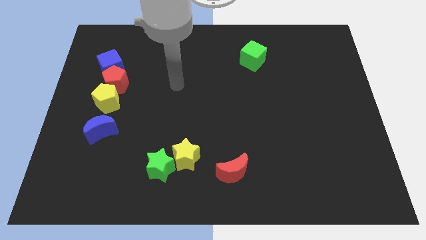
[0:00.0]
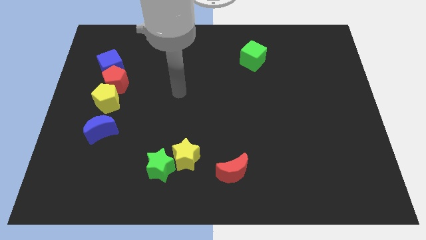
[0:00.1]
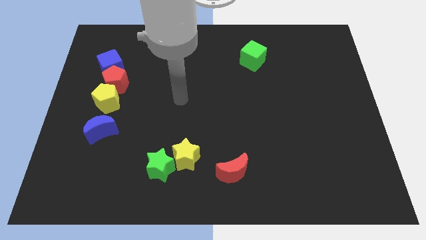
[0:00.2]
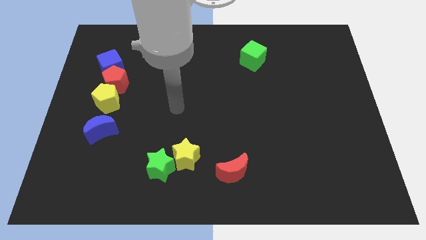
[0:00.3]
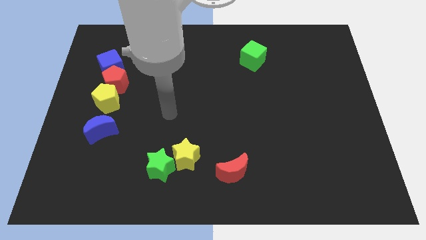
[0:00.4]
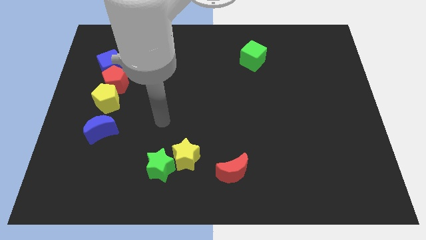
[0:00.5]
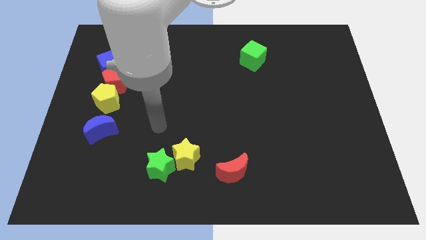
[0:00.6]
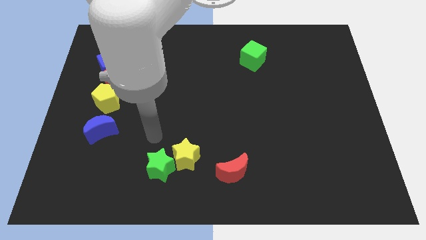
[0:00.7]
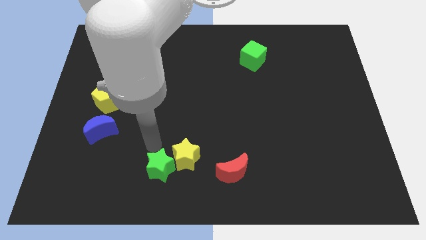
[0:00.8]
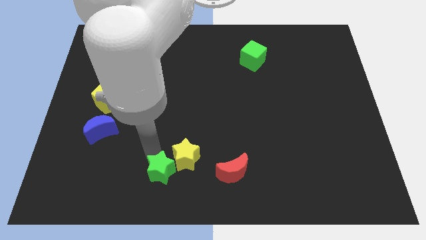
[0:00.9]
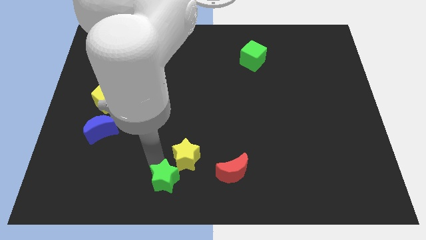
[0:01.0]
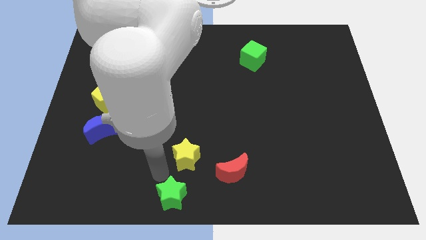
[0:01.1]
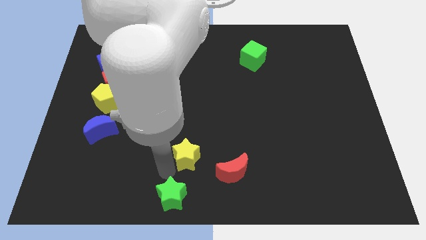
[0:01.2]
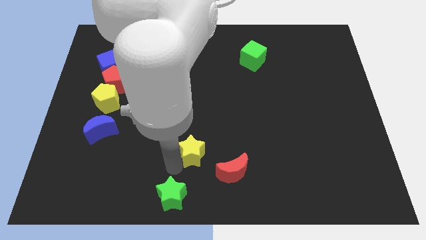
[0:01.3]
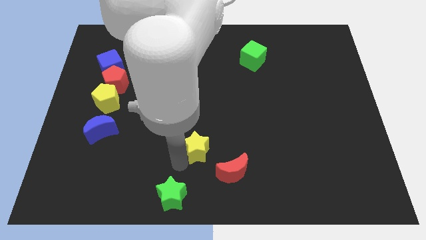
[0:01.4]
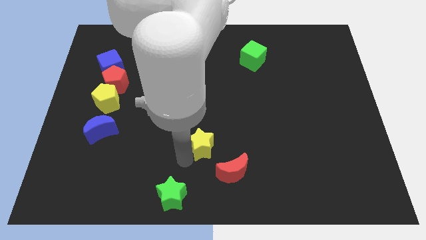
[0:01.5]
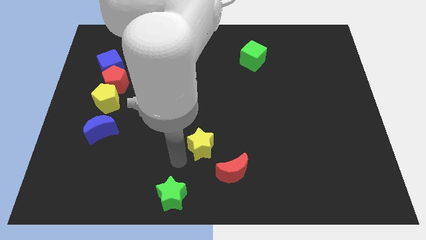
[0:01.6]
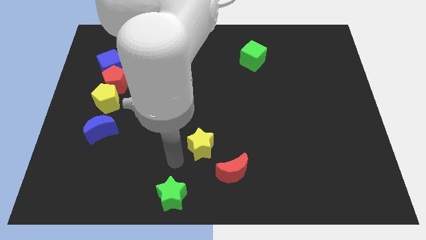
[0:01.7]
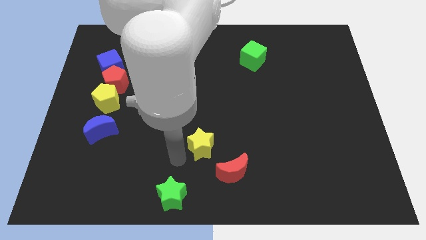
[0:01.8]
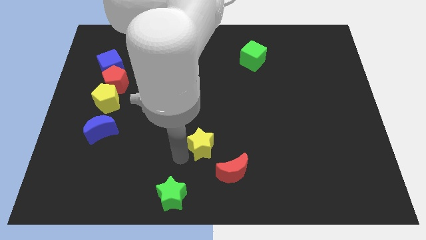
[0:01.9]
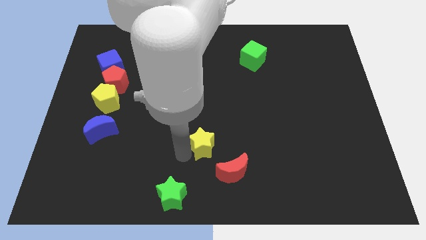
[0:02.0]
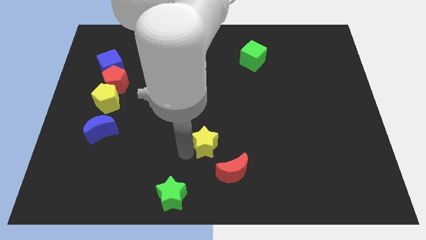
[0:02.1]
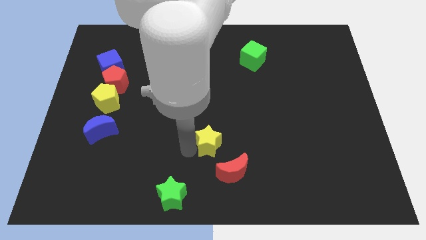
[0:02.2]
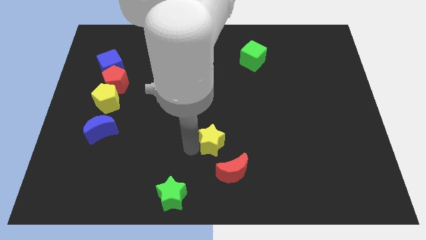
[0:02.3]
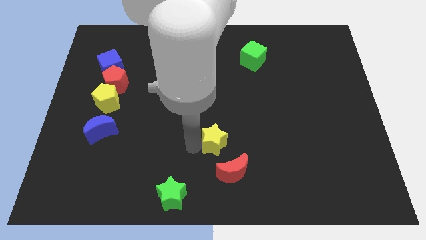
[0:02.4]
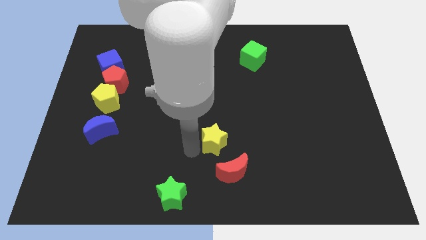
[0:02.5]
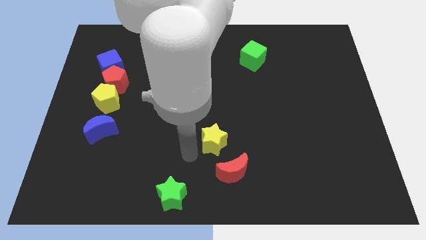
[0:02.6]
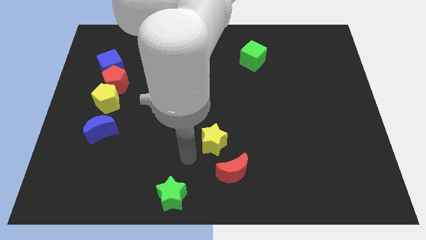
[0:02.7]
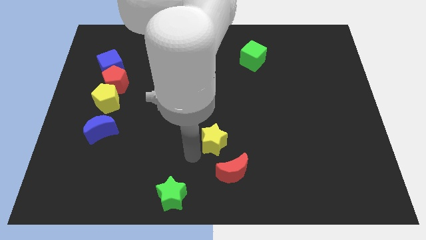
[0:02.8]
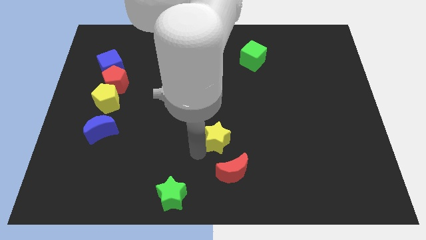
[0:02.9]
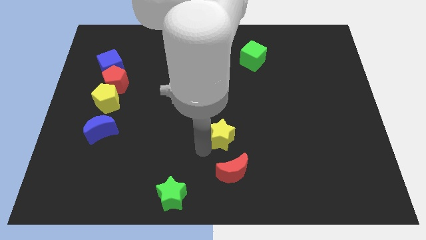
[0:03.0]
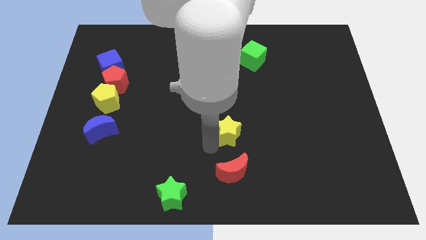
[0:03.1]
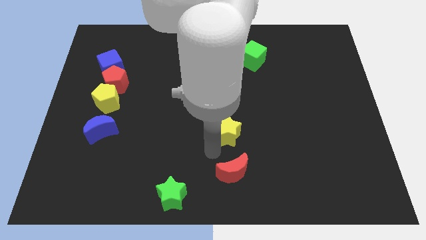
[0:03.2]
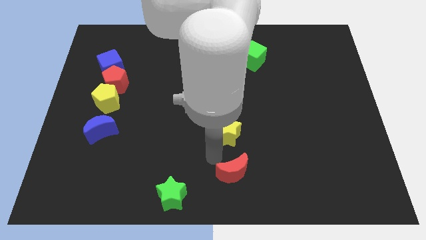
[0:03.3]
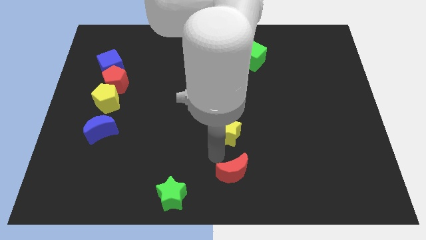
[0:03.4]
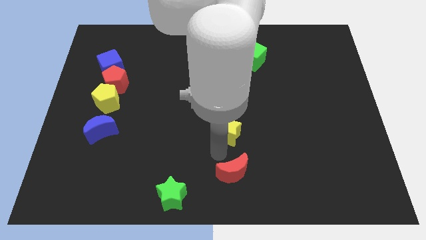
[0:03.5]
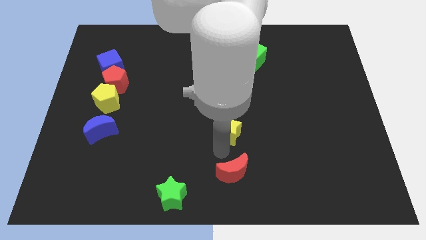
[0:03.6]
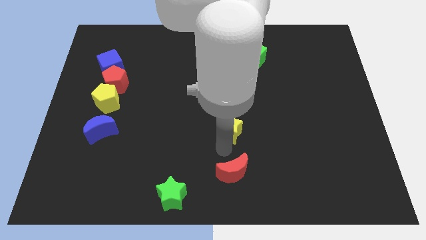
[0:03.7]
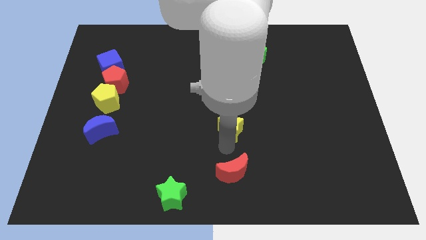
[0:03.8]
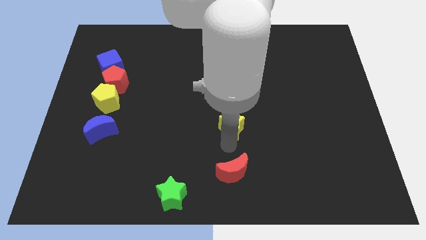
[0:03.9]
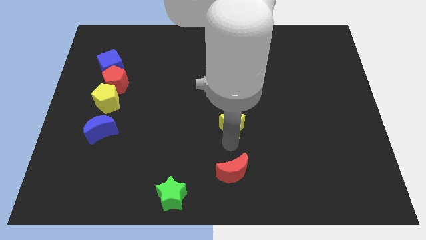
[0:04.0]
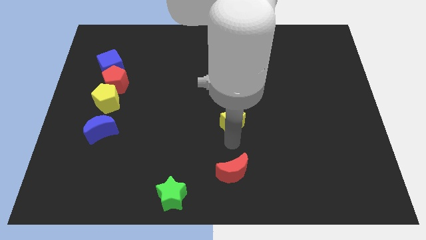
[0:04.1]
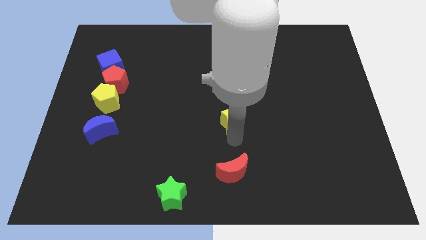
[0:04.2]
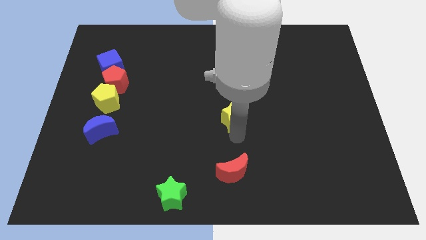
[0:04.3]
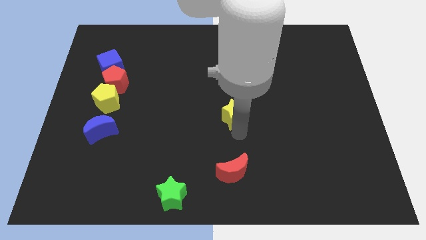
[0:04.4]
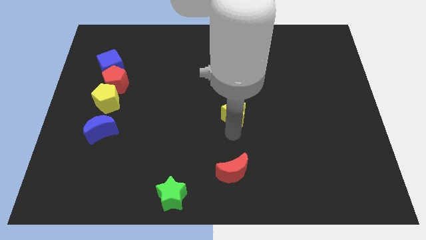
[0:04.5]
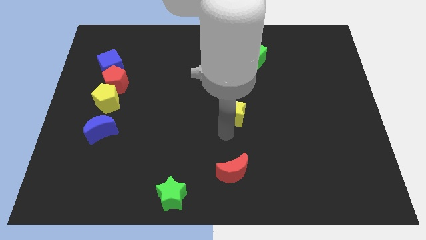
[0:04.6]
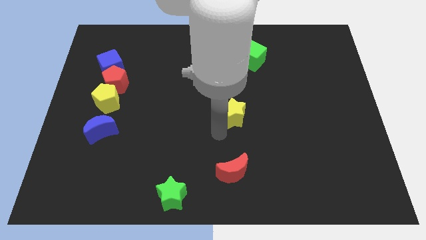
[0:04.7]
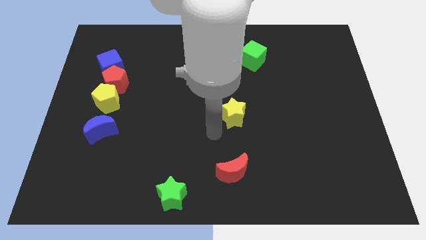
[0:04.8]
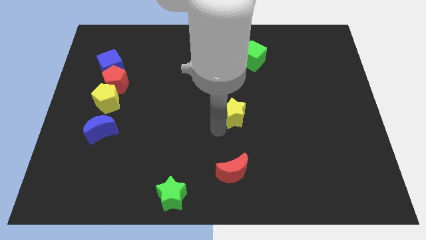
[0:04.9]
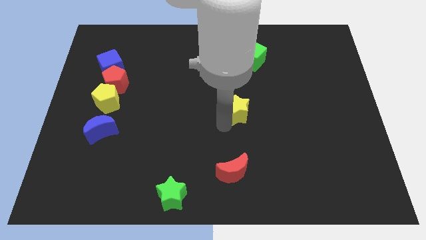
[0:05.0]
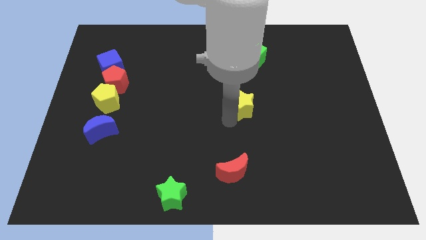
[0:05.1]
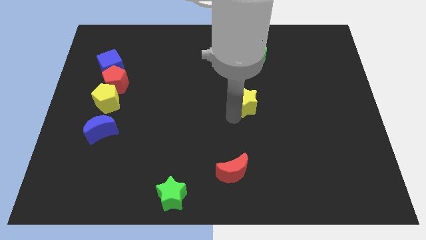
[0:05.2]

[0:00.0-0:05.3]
push the yellow star up and then right

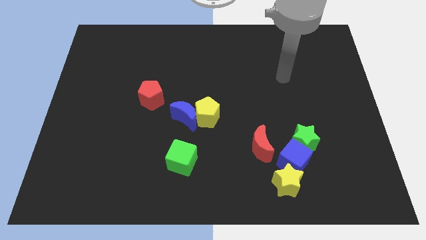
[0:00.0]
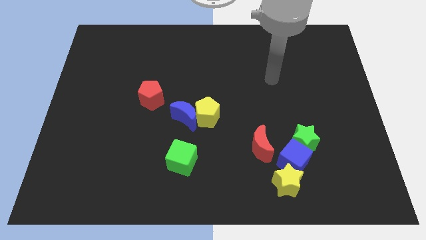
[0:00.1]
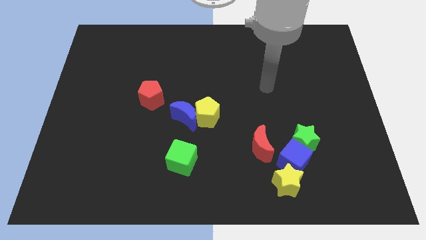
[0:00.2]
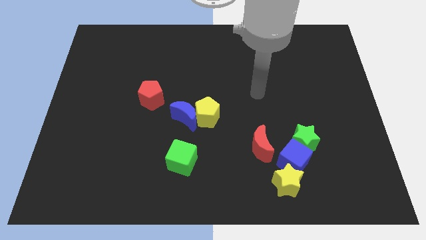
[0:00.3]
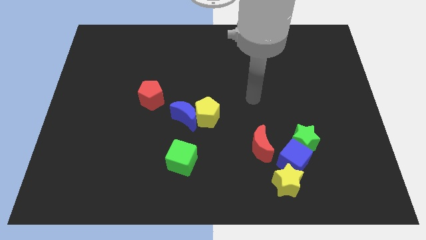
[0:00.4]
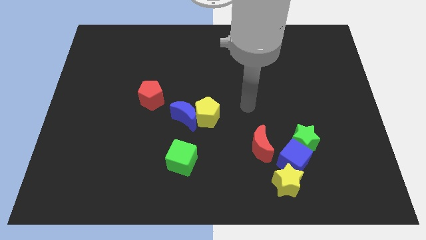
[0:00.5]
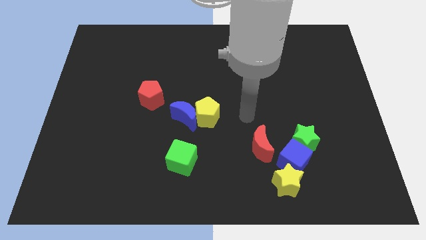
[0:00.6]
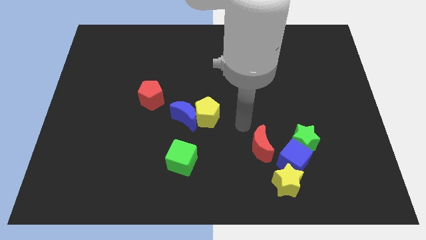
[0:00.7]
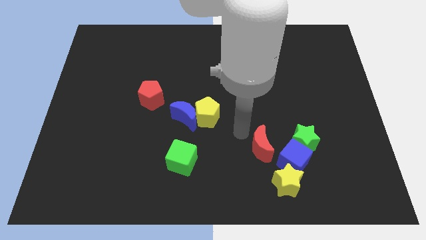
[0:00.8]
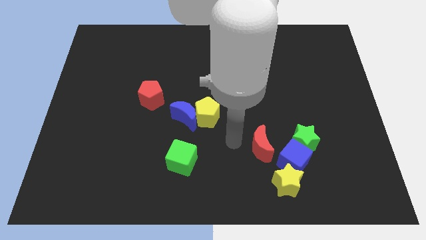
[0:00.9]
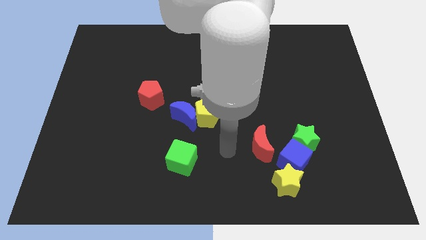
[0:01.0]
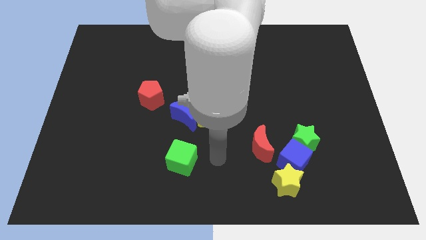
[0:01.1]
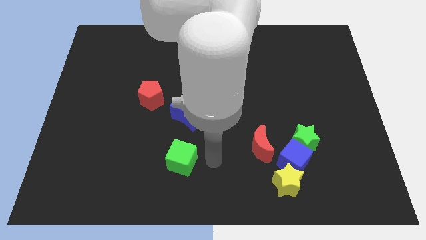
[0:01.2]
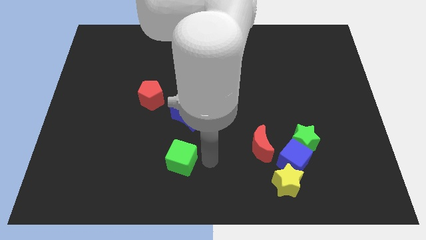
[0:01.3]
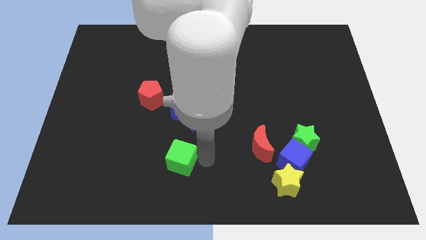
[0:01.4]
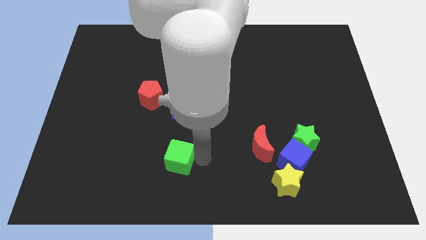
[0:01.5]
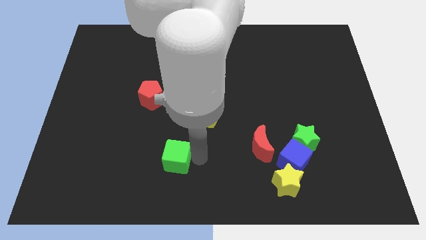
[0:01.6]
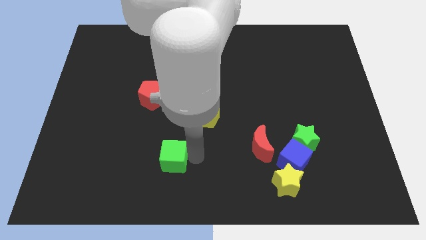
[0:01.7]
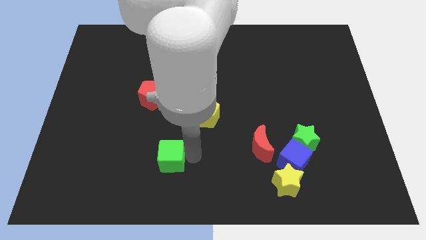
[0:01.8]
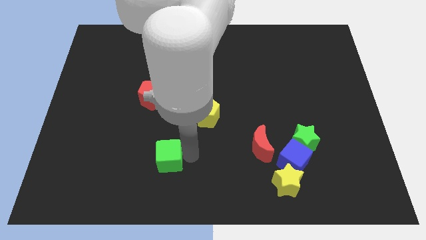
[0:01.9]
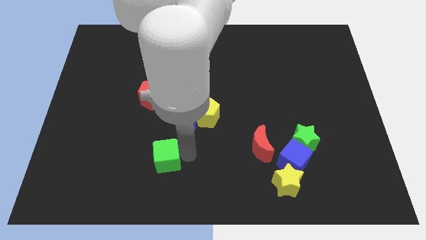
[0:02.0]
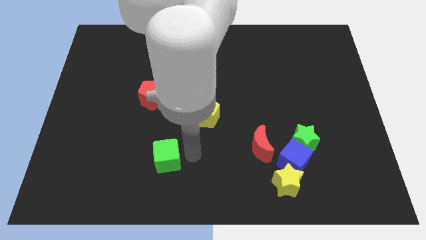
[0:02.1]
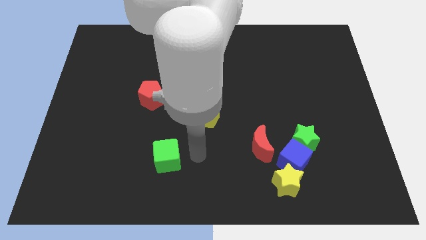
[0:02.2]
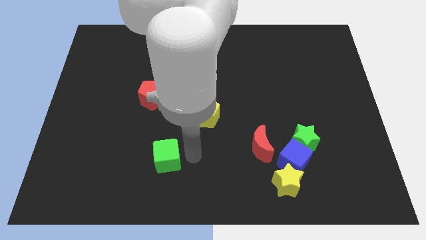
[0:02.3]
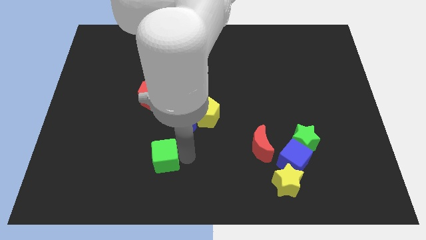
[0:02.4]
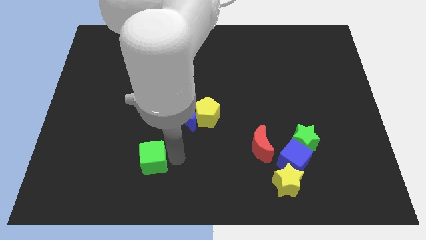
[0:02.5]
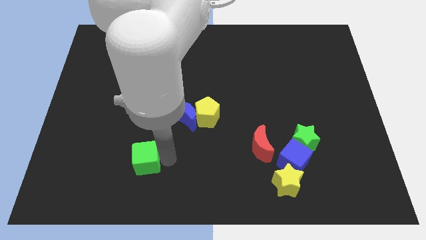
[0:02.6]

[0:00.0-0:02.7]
slightly push the green cube left
